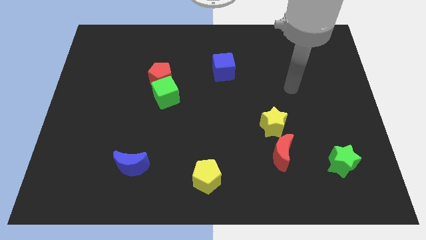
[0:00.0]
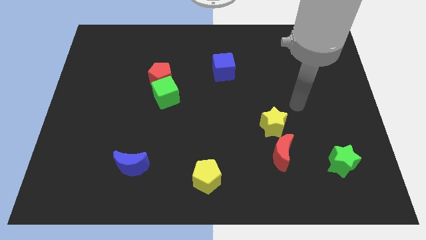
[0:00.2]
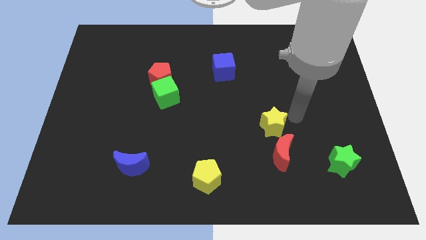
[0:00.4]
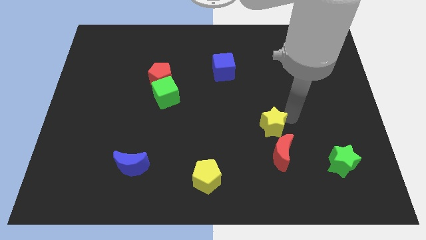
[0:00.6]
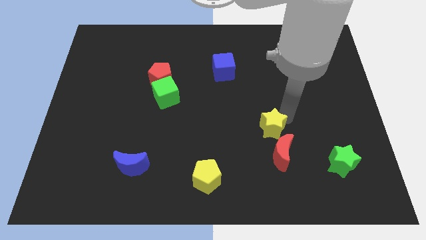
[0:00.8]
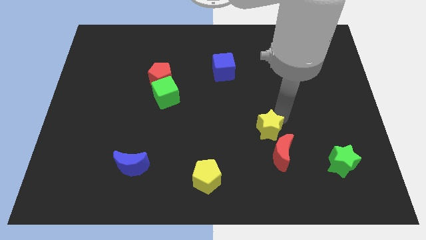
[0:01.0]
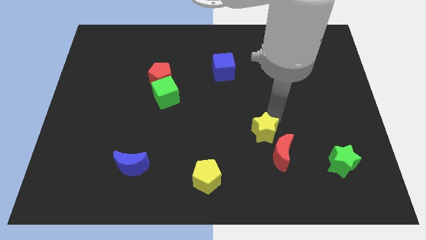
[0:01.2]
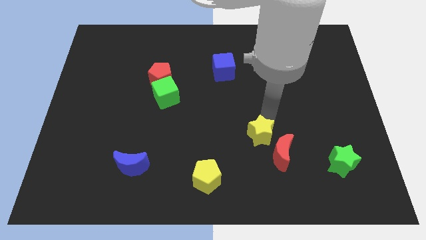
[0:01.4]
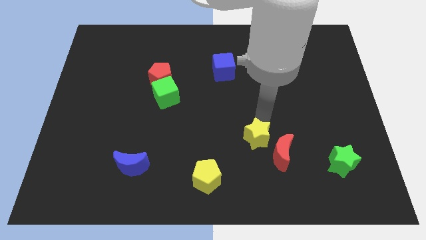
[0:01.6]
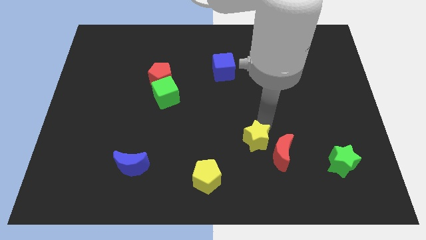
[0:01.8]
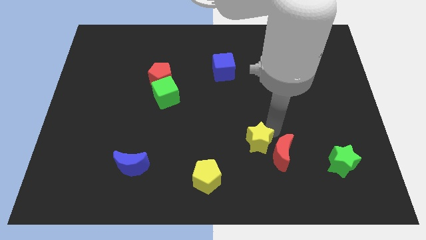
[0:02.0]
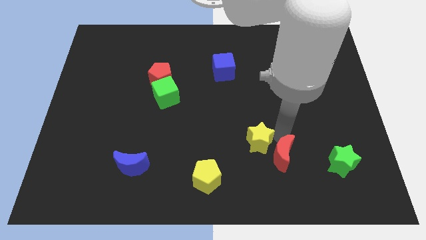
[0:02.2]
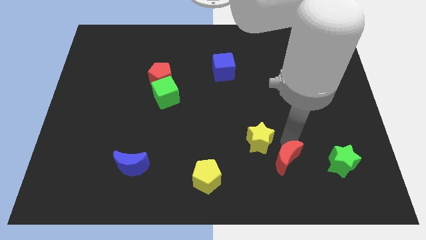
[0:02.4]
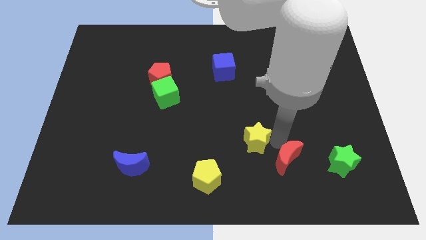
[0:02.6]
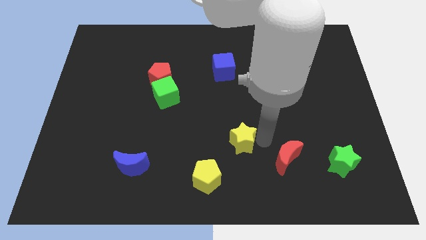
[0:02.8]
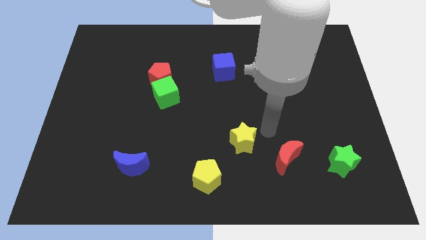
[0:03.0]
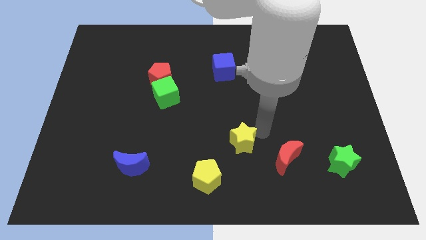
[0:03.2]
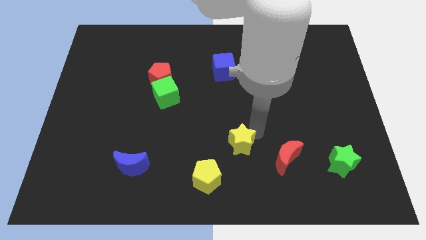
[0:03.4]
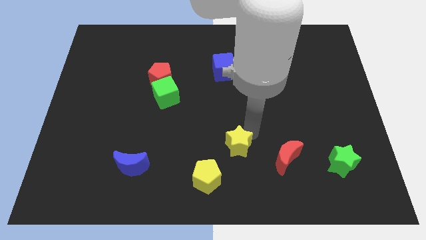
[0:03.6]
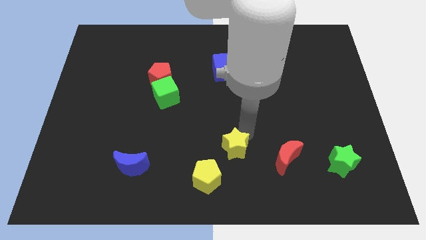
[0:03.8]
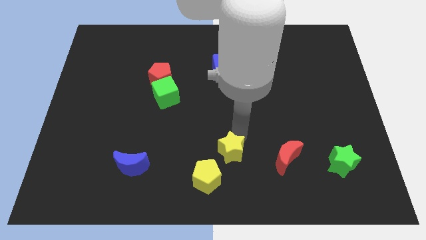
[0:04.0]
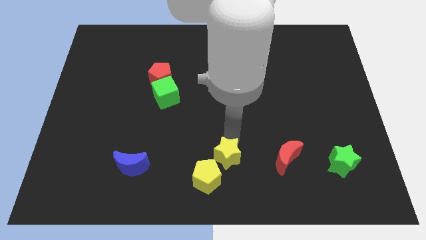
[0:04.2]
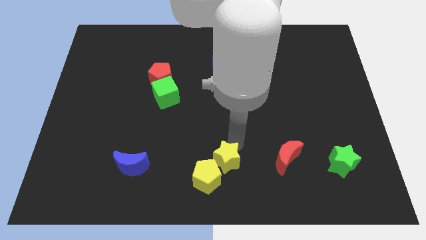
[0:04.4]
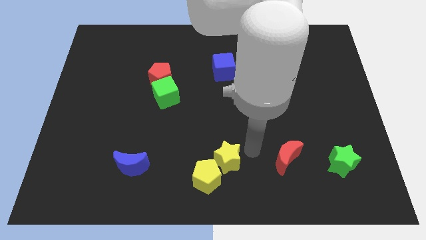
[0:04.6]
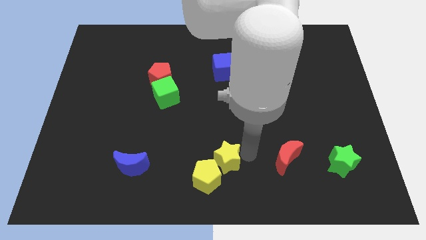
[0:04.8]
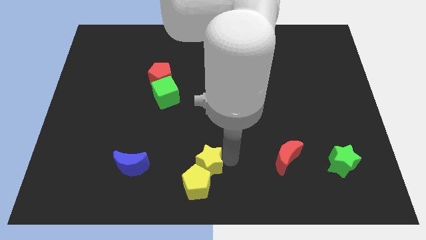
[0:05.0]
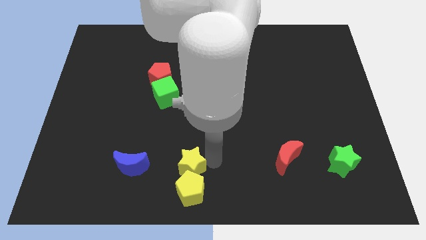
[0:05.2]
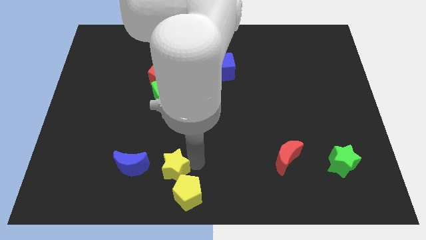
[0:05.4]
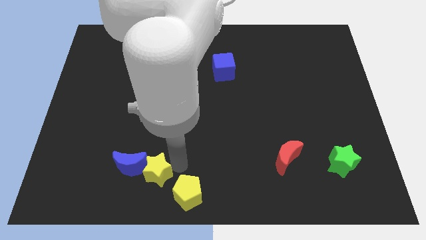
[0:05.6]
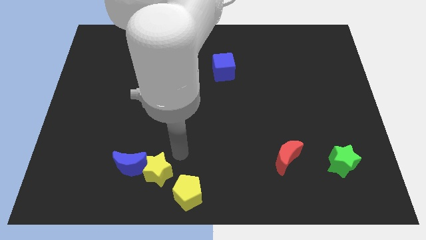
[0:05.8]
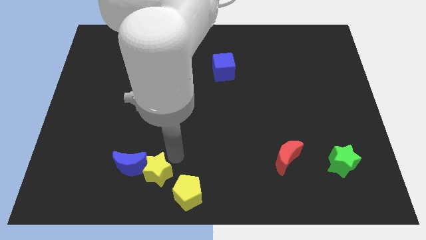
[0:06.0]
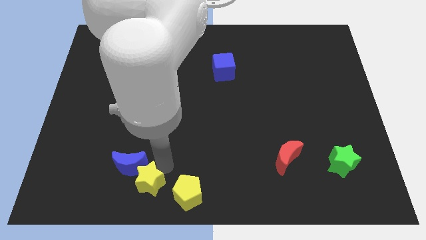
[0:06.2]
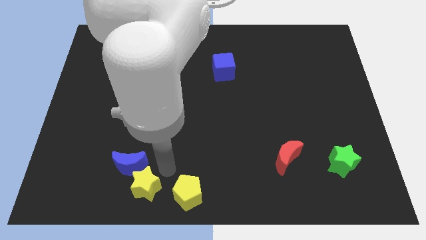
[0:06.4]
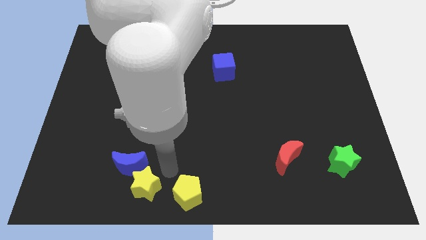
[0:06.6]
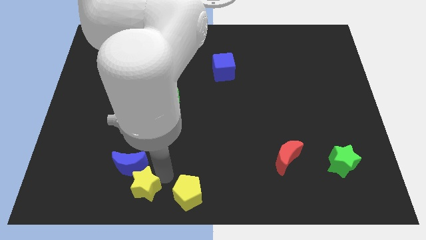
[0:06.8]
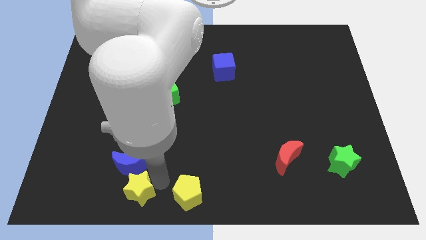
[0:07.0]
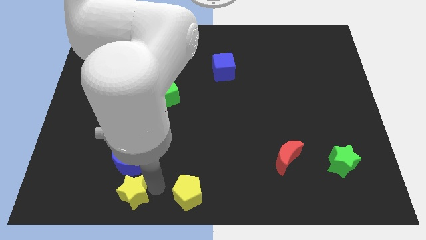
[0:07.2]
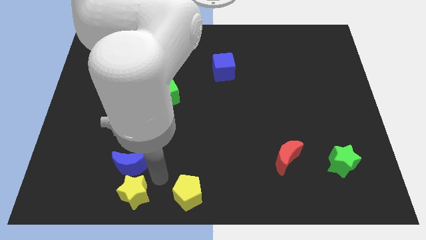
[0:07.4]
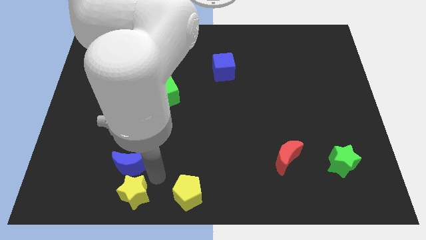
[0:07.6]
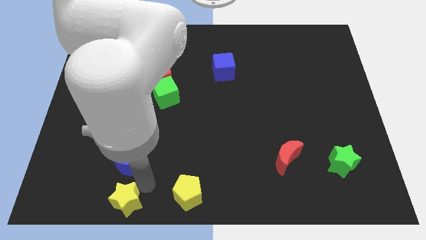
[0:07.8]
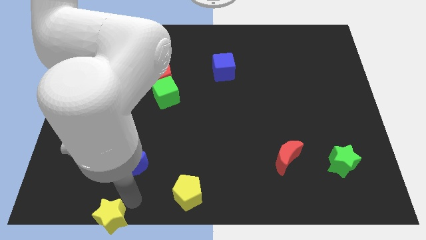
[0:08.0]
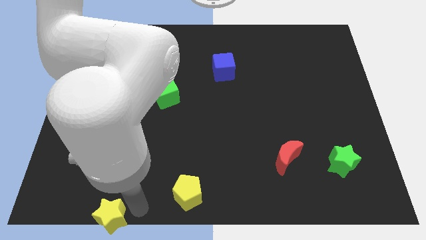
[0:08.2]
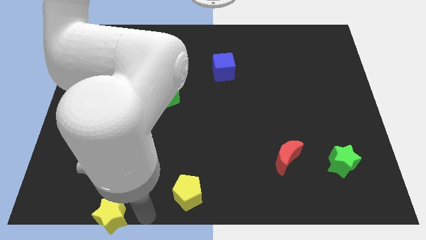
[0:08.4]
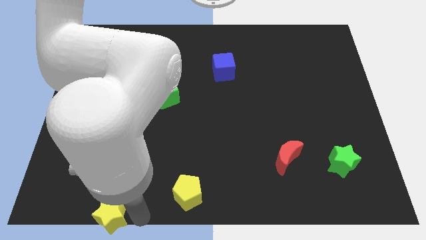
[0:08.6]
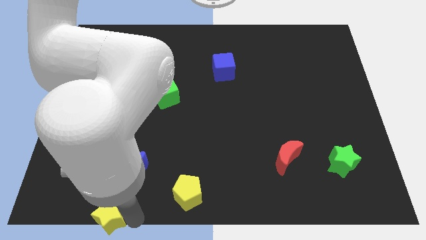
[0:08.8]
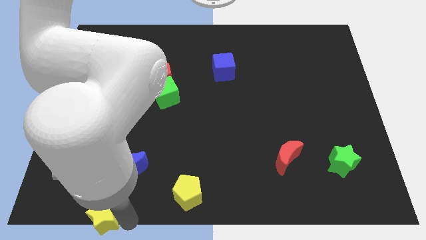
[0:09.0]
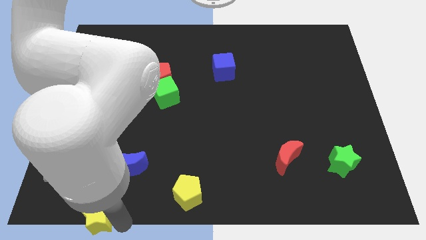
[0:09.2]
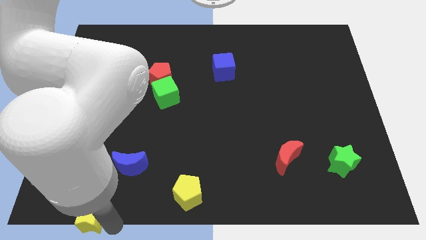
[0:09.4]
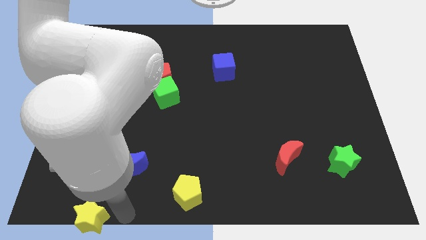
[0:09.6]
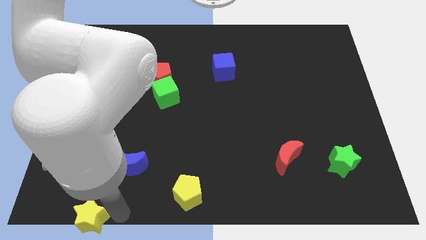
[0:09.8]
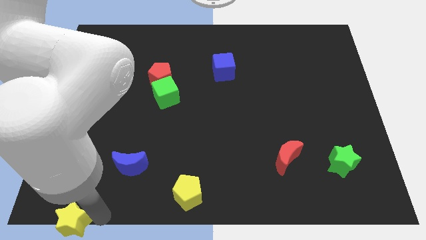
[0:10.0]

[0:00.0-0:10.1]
slide the yellow star to the bottom left corner
